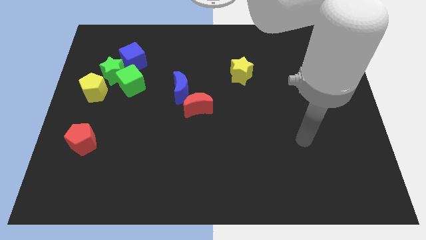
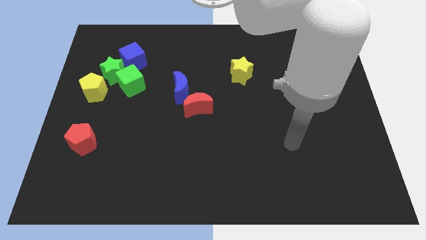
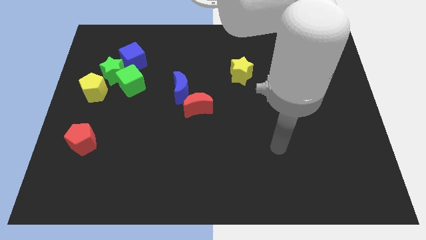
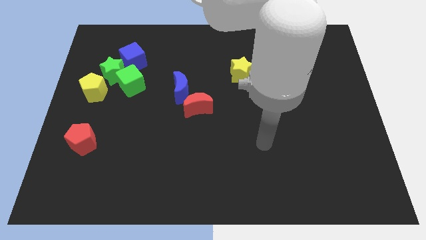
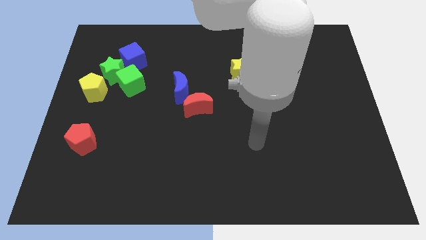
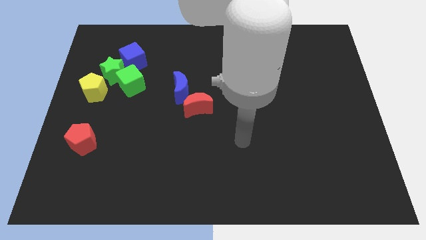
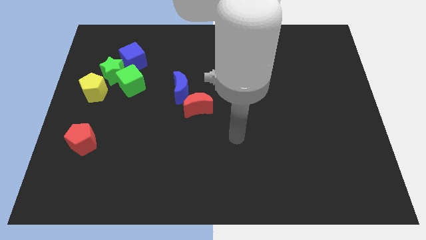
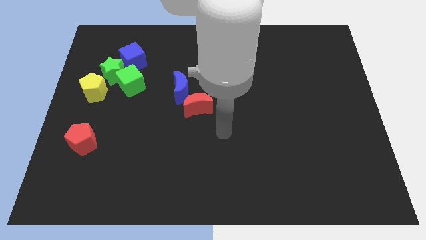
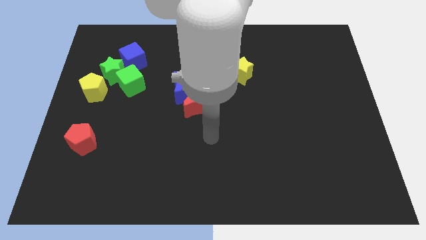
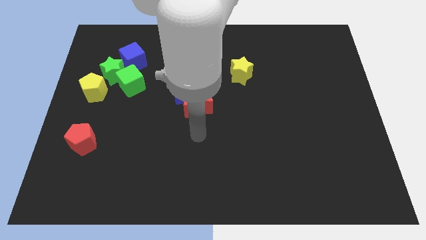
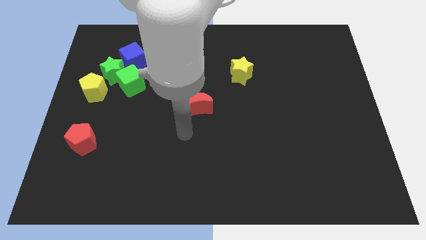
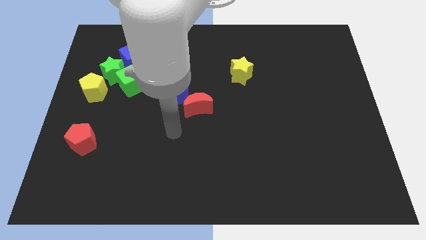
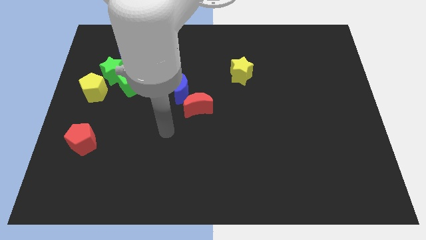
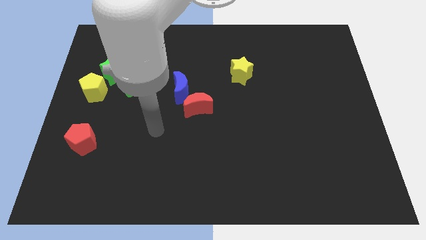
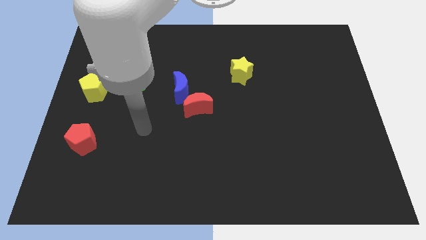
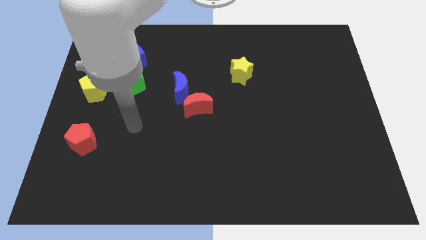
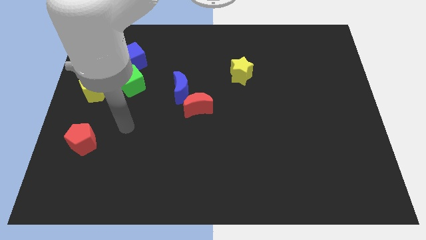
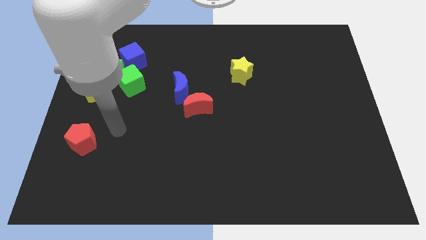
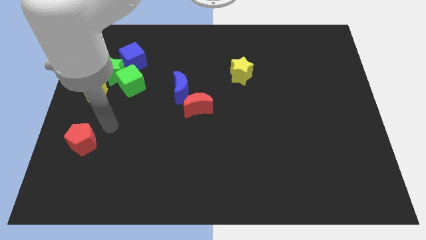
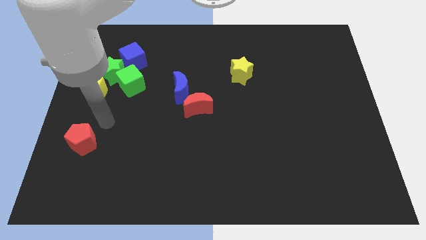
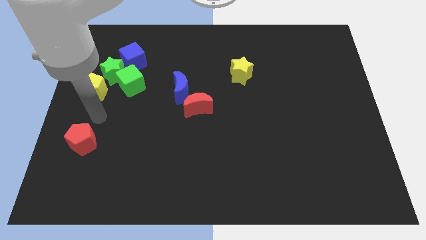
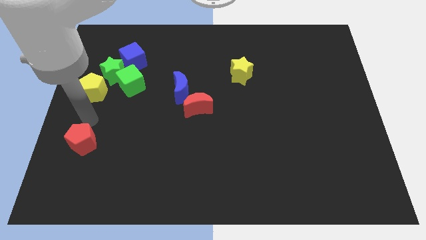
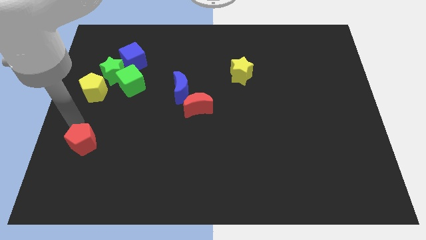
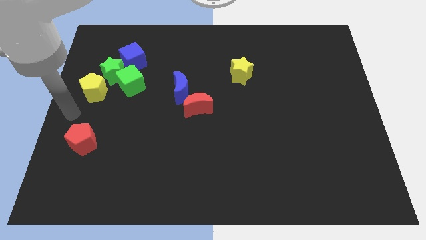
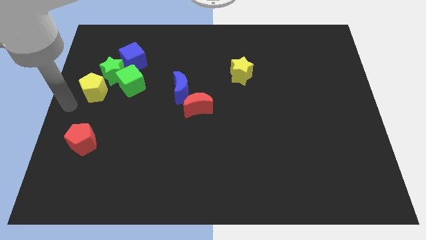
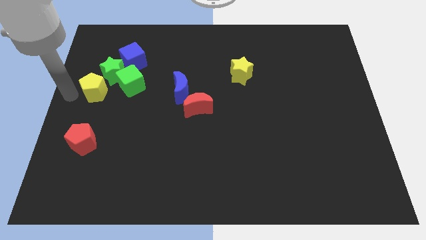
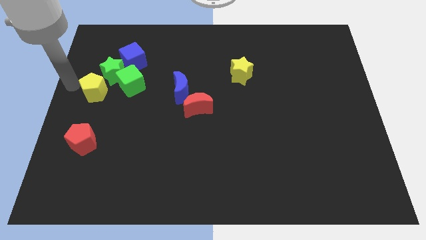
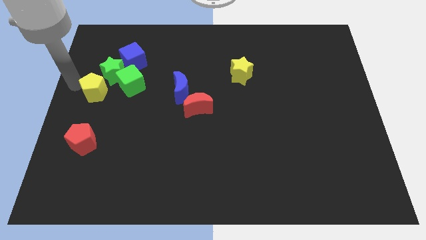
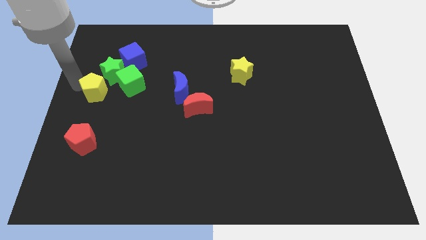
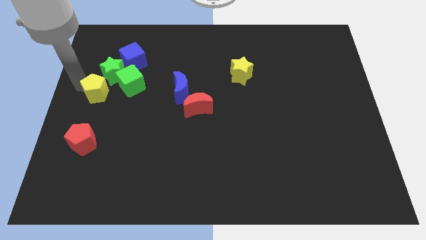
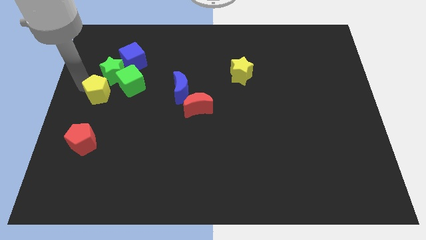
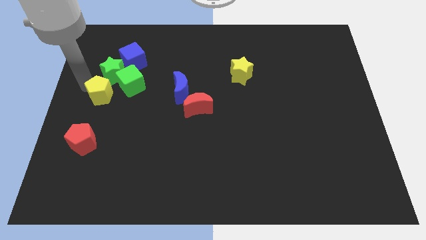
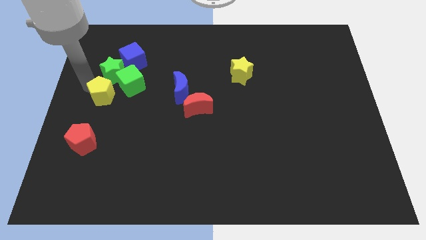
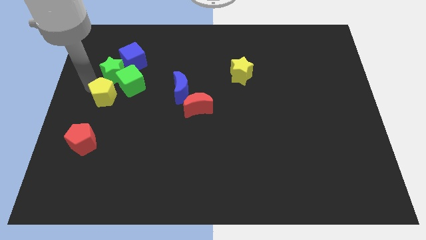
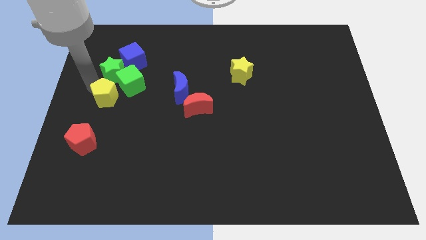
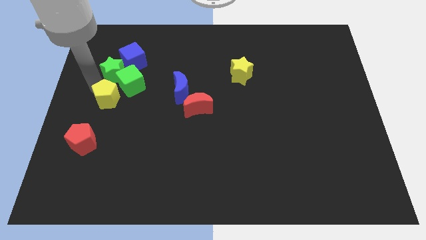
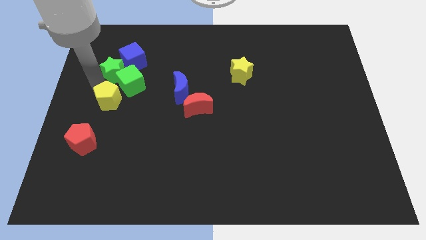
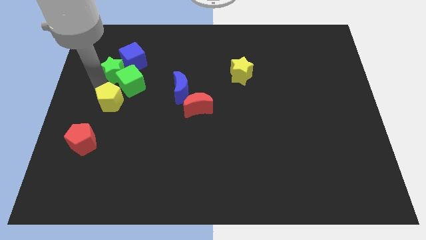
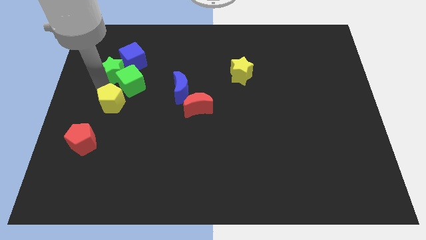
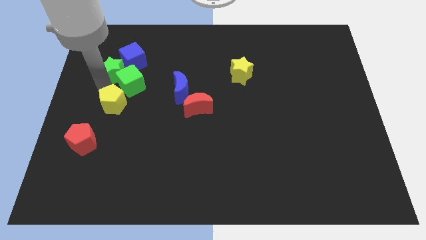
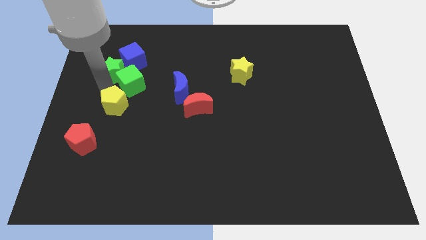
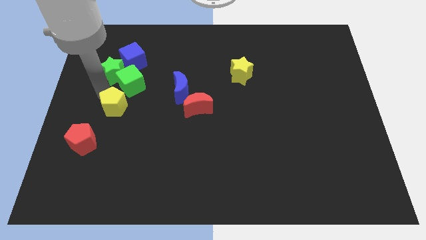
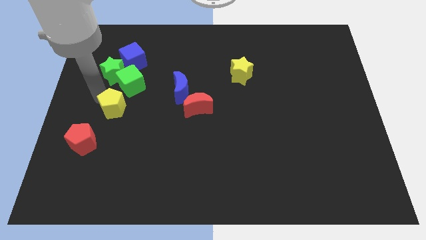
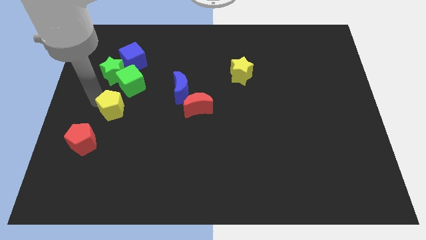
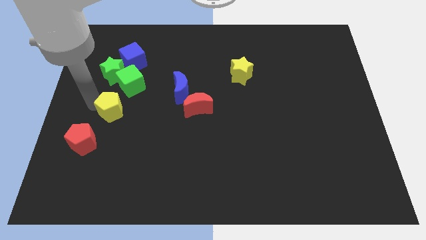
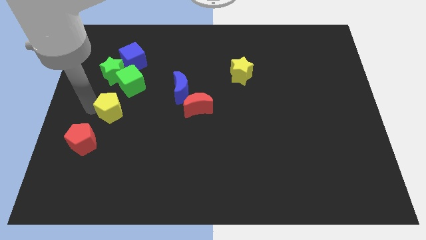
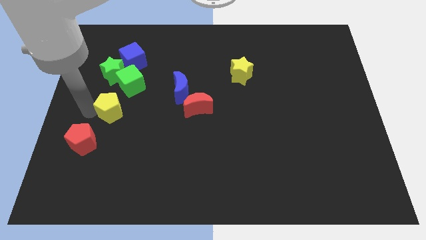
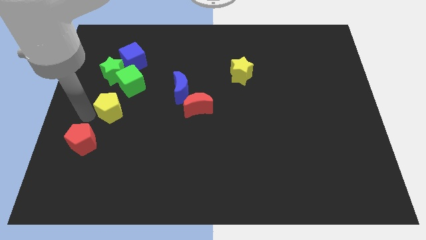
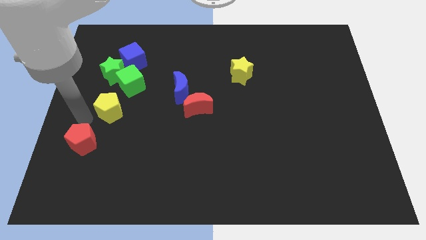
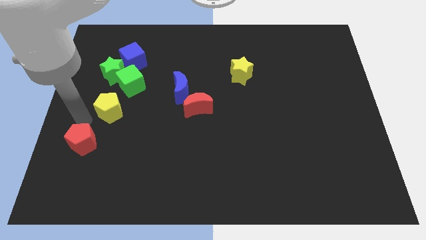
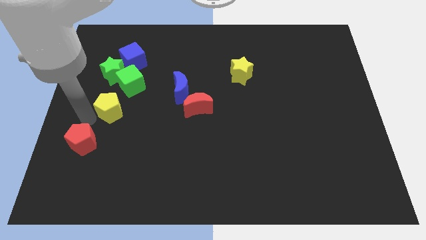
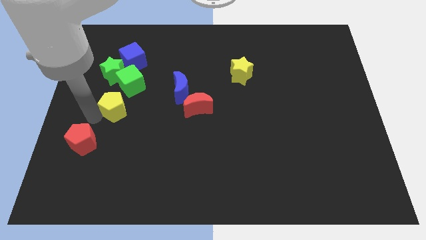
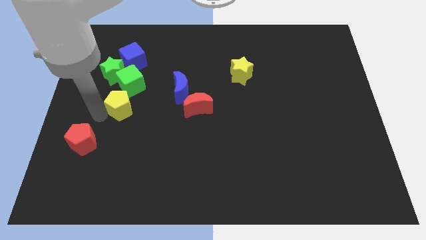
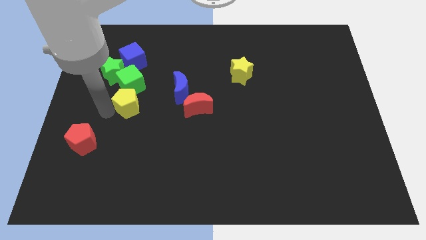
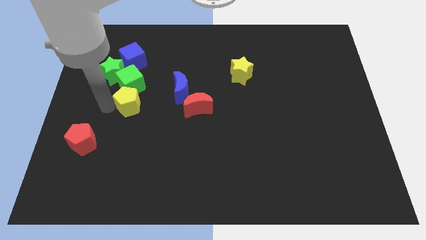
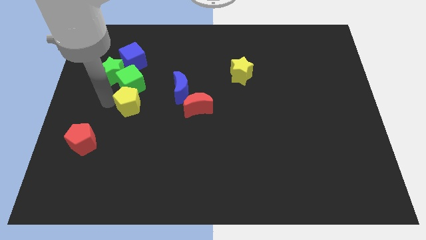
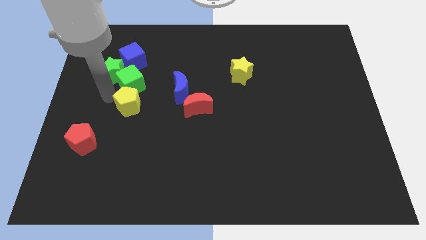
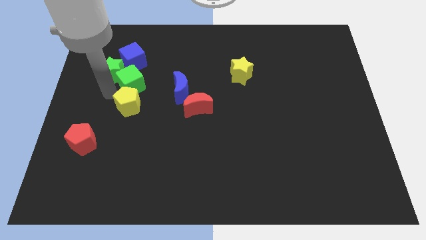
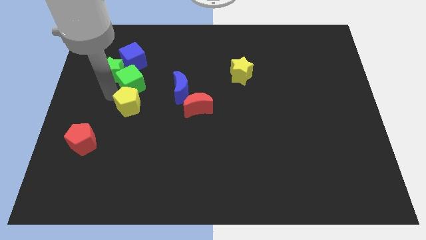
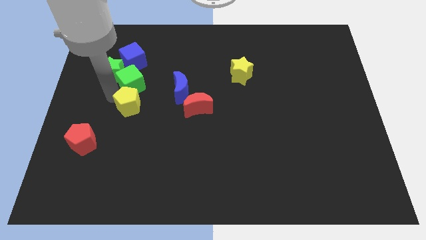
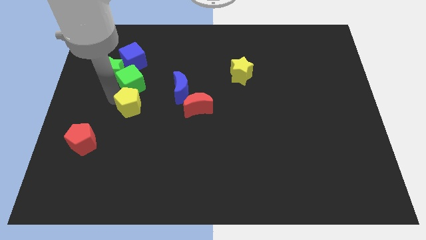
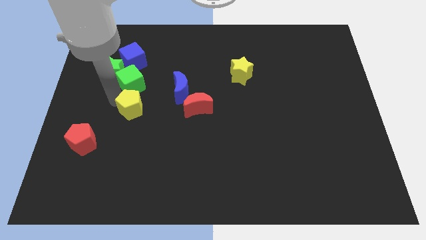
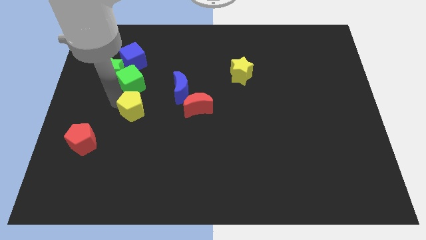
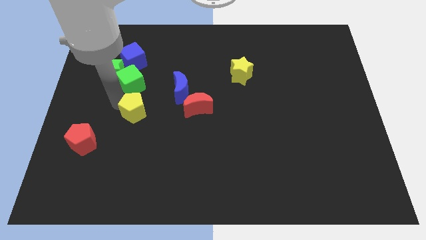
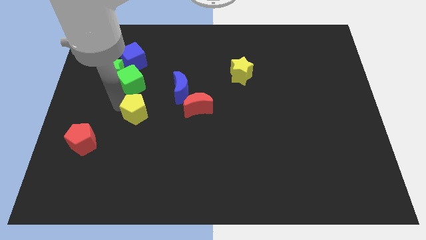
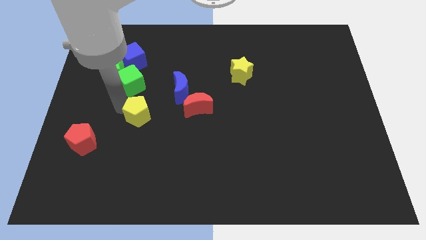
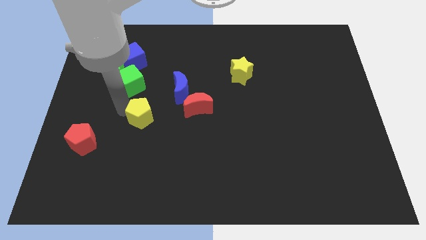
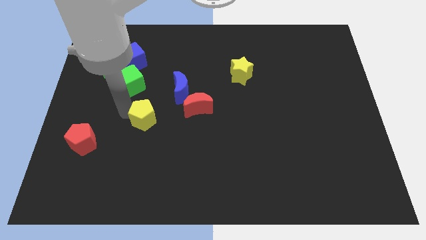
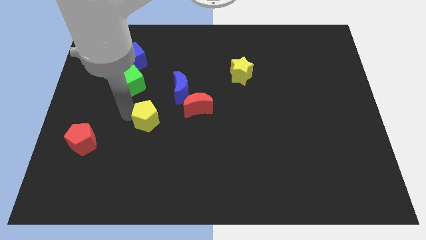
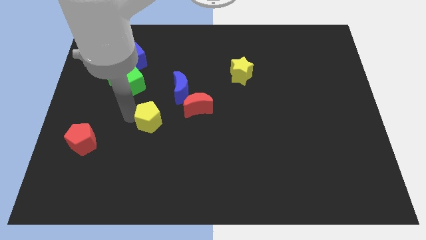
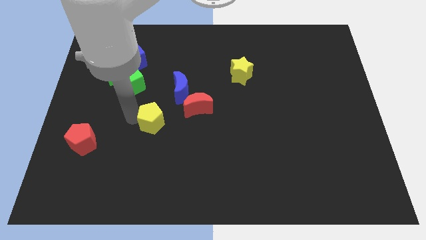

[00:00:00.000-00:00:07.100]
push the yellow pentagon to the bottom left side of the red moon

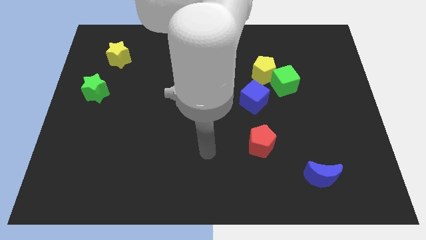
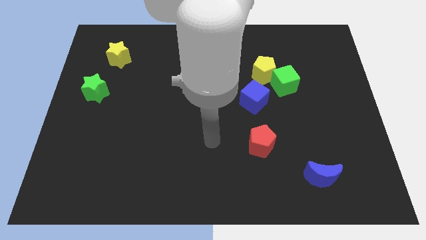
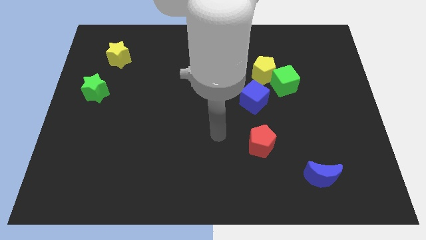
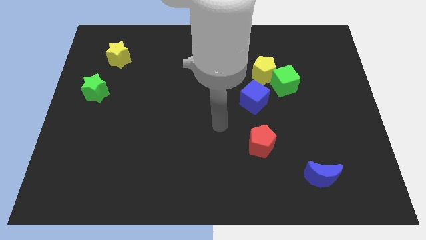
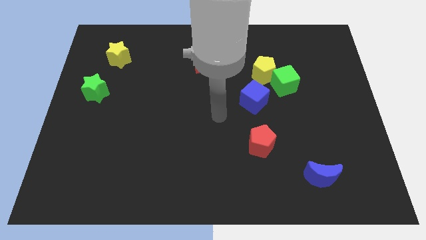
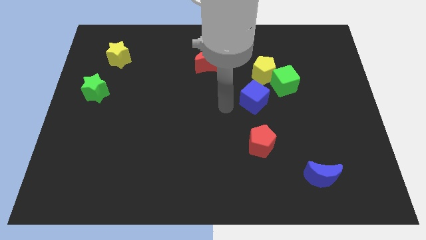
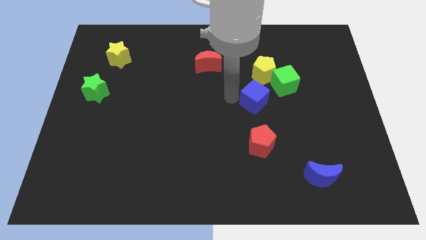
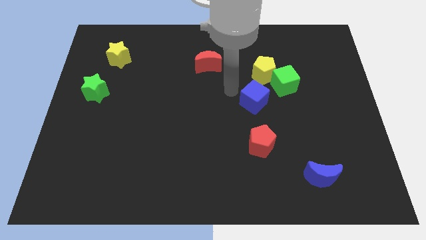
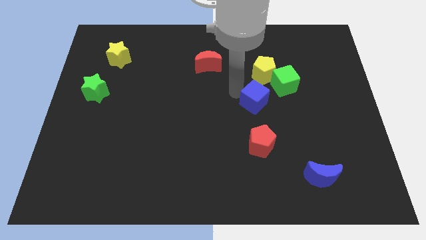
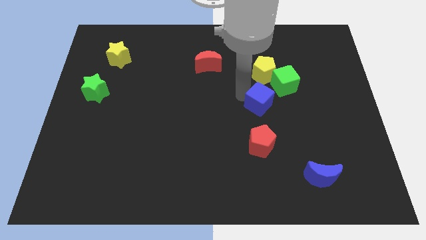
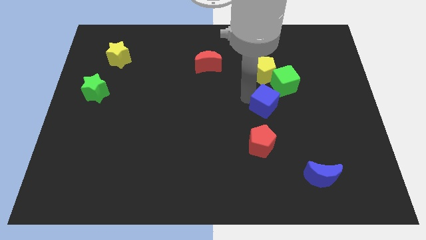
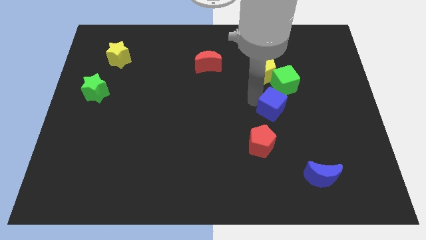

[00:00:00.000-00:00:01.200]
slide the blue cube below the green cube
